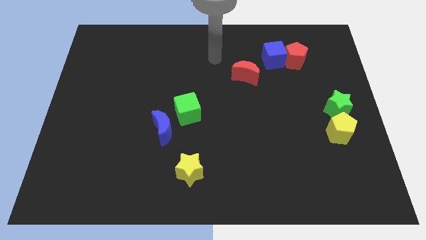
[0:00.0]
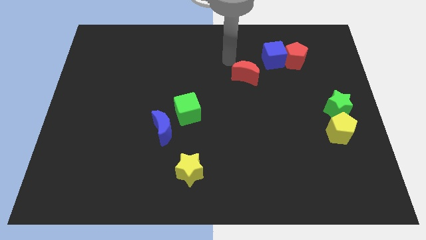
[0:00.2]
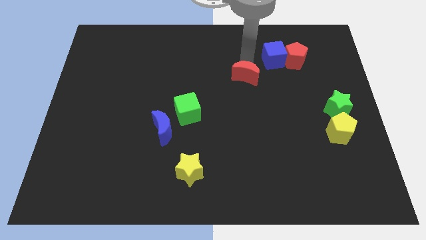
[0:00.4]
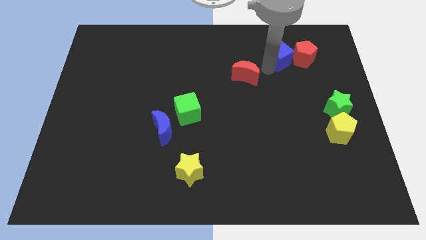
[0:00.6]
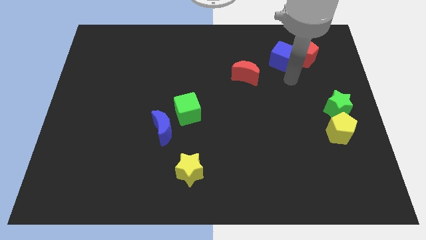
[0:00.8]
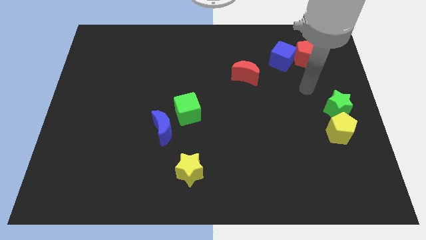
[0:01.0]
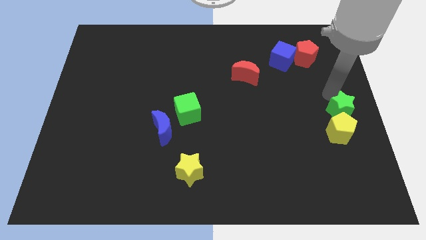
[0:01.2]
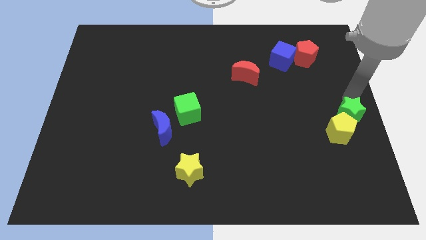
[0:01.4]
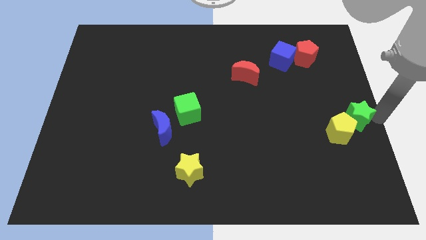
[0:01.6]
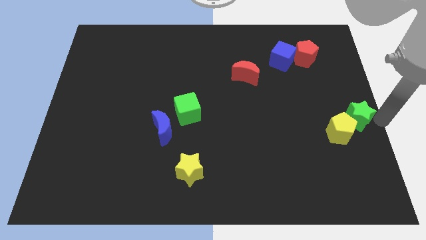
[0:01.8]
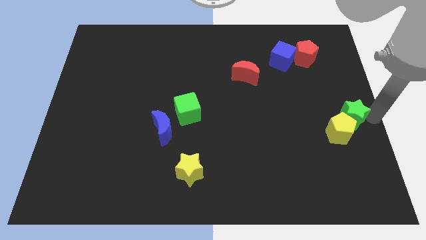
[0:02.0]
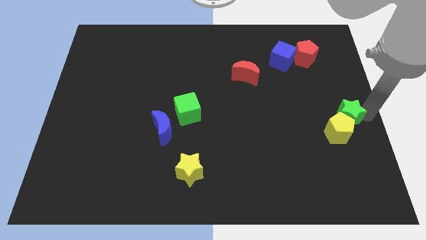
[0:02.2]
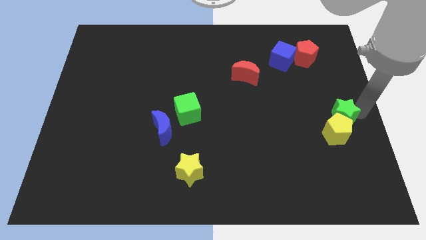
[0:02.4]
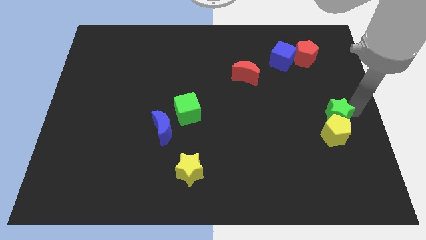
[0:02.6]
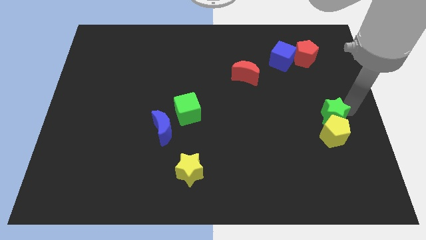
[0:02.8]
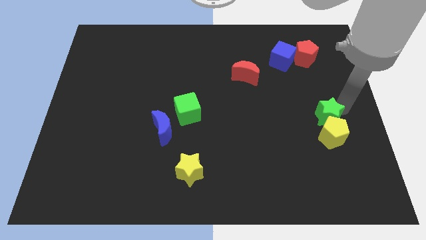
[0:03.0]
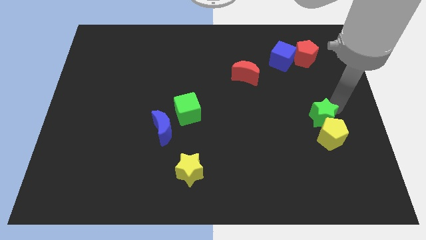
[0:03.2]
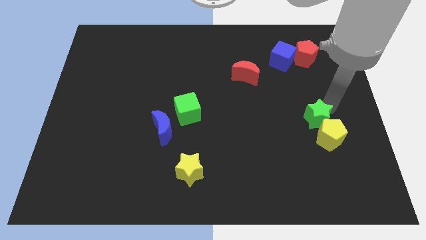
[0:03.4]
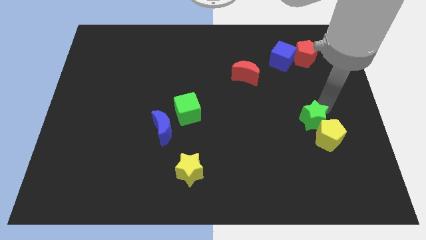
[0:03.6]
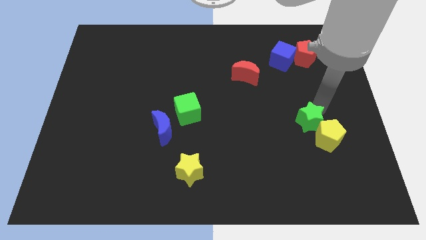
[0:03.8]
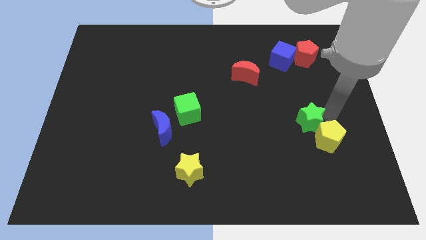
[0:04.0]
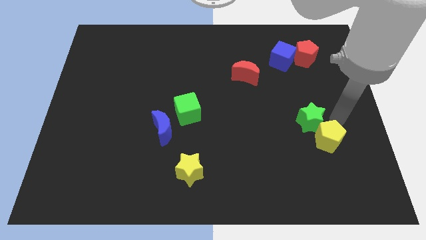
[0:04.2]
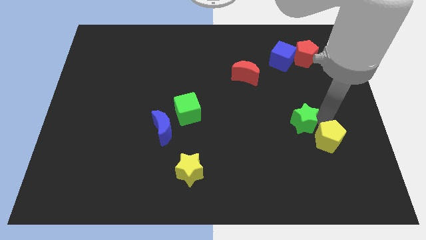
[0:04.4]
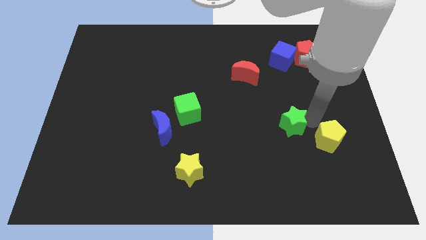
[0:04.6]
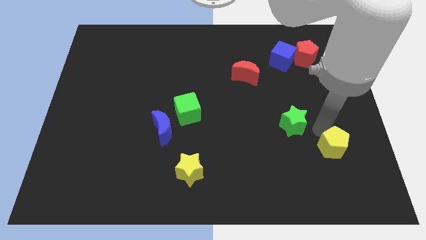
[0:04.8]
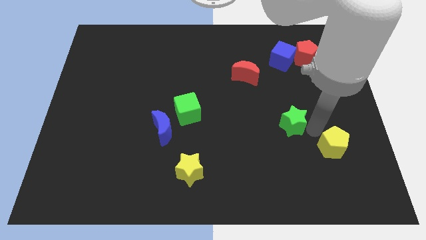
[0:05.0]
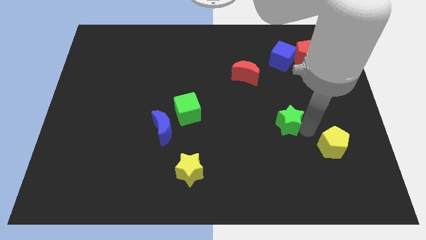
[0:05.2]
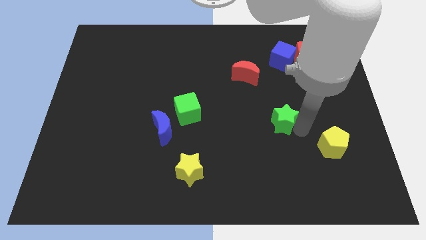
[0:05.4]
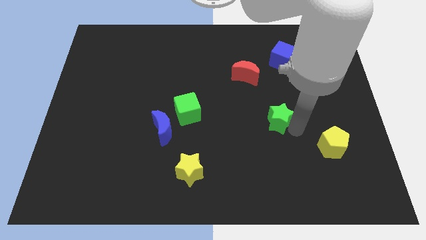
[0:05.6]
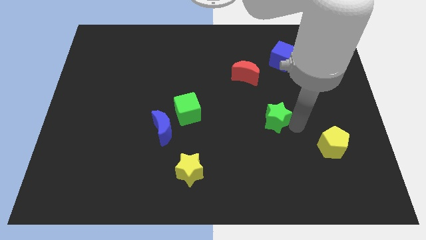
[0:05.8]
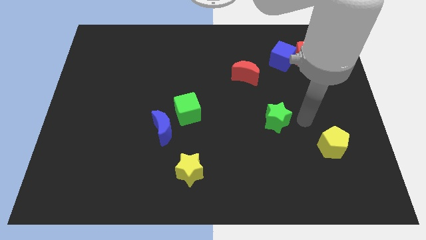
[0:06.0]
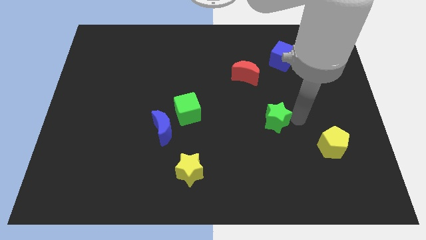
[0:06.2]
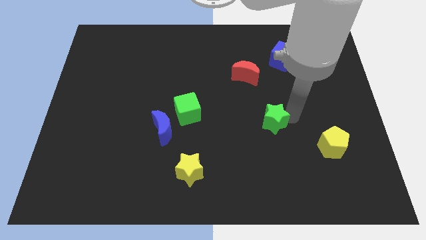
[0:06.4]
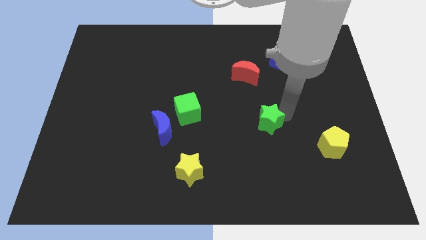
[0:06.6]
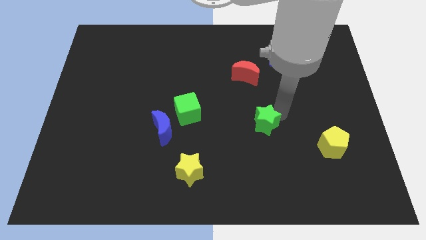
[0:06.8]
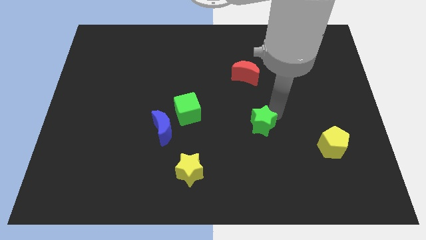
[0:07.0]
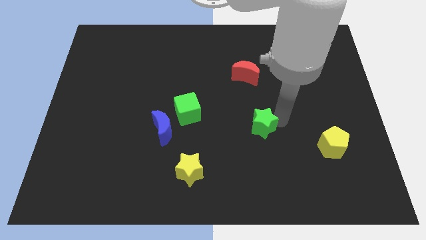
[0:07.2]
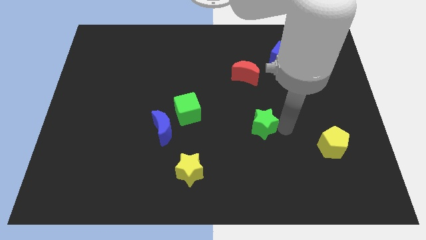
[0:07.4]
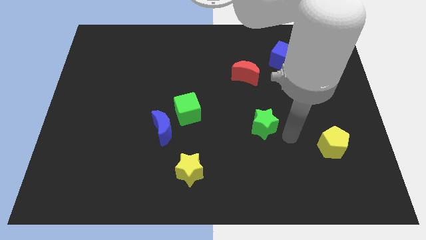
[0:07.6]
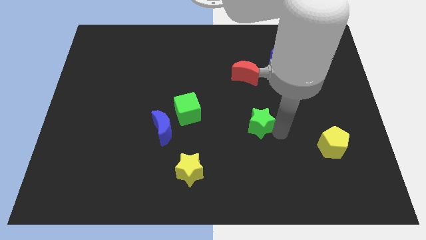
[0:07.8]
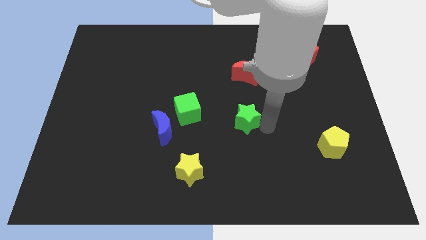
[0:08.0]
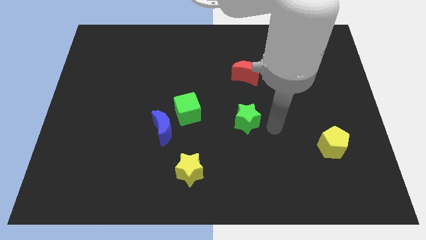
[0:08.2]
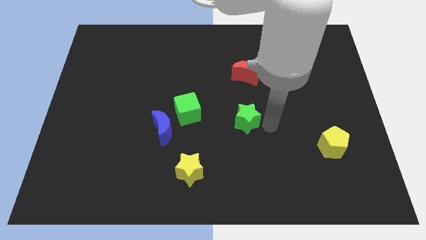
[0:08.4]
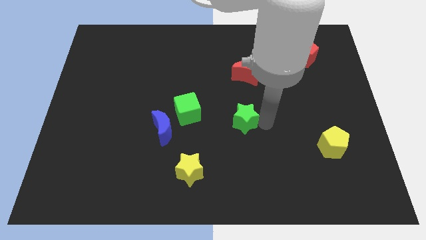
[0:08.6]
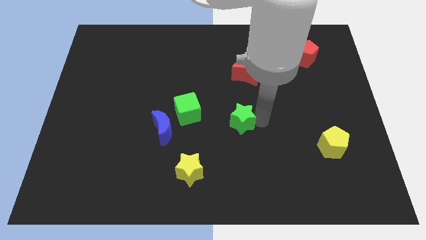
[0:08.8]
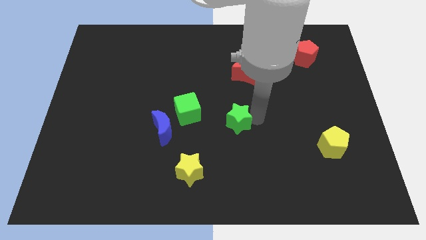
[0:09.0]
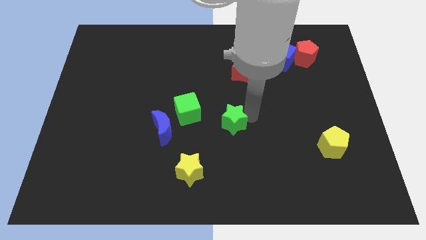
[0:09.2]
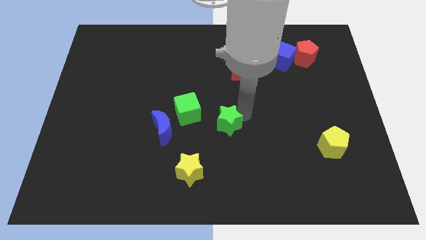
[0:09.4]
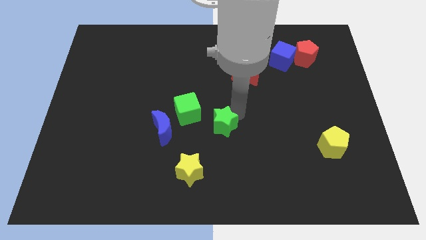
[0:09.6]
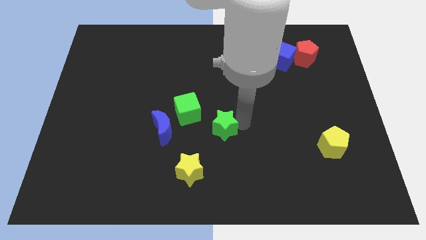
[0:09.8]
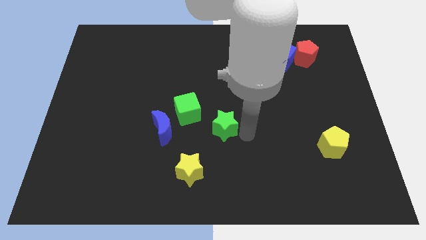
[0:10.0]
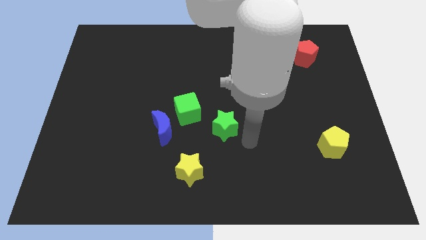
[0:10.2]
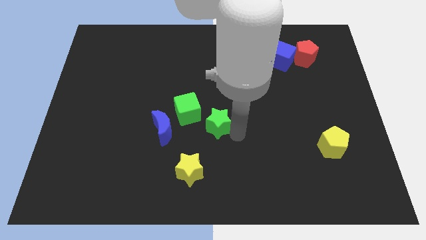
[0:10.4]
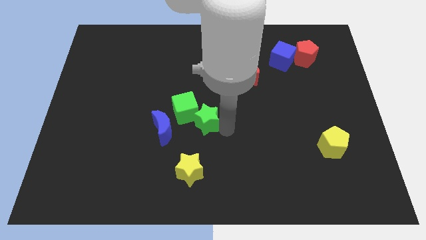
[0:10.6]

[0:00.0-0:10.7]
put the green star next to the green cube

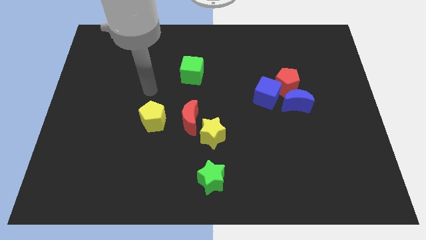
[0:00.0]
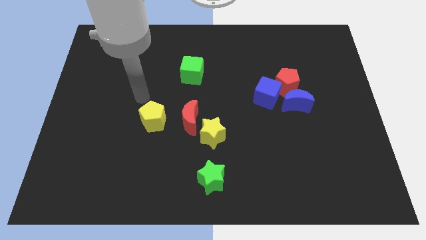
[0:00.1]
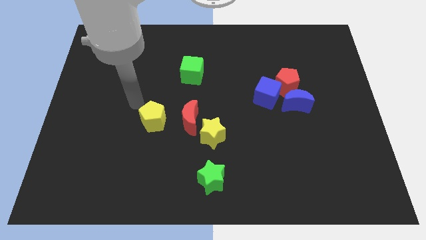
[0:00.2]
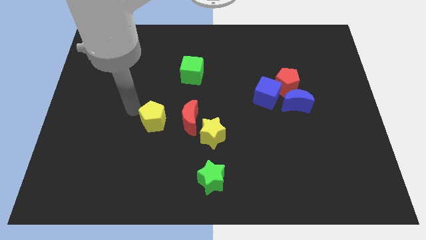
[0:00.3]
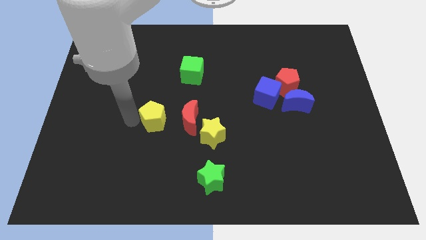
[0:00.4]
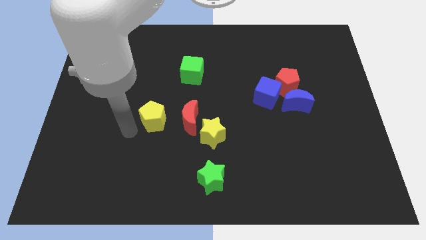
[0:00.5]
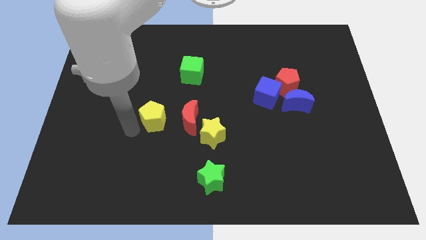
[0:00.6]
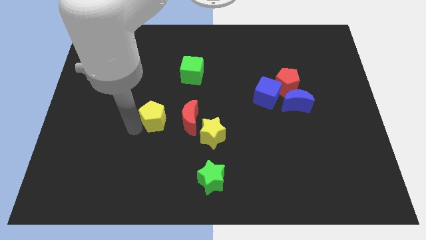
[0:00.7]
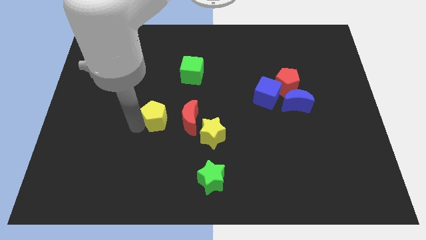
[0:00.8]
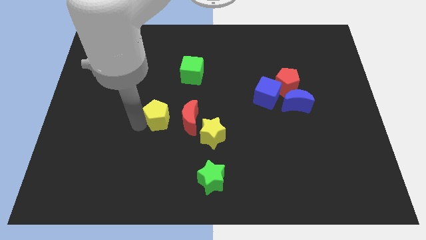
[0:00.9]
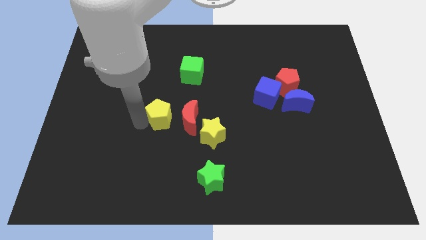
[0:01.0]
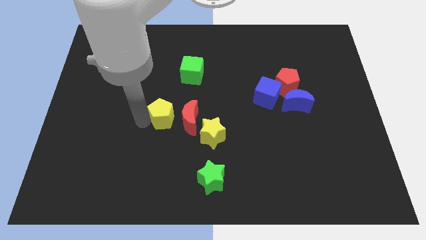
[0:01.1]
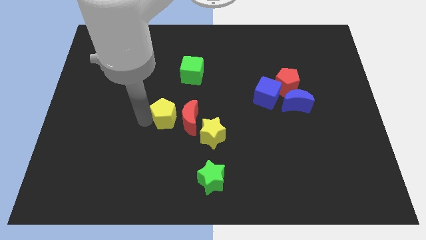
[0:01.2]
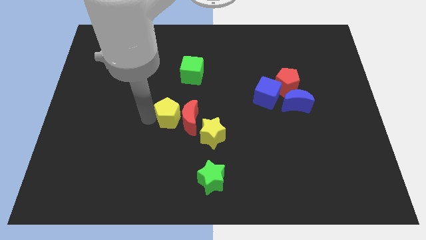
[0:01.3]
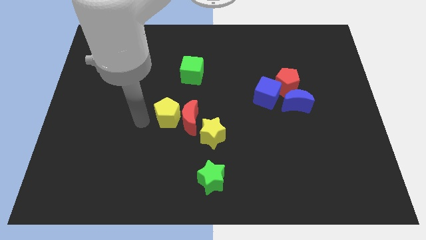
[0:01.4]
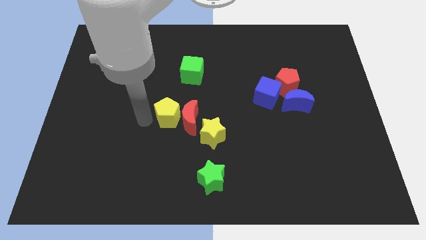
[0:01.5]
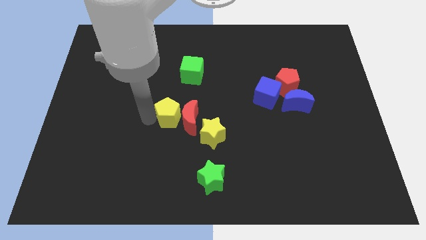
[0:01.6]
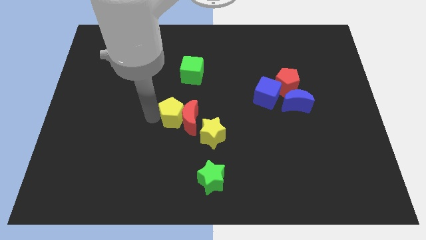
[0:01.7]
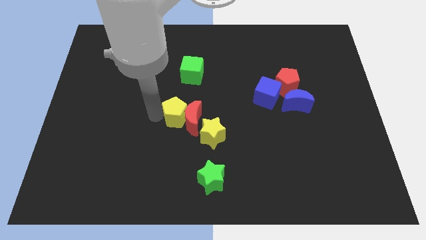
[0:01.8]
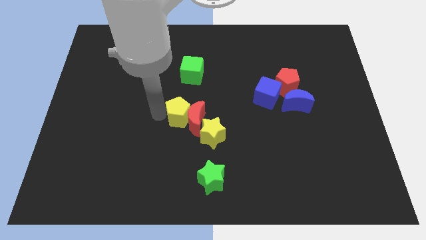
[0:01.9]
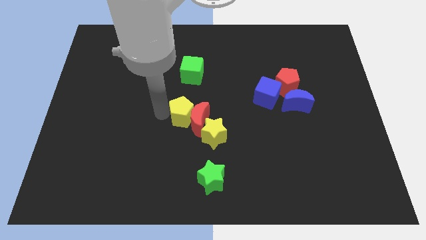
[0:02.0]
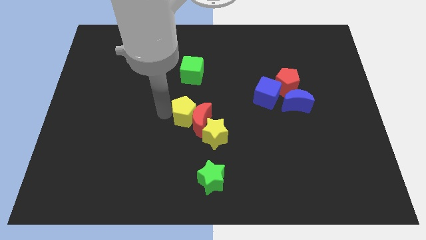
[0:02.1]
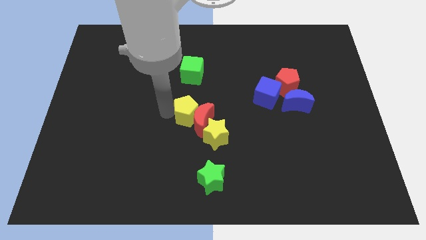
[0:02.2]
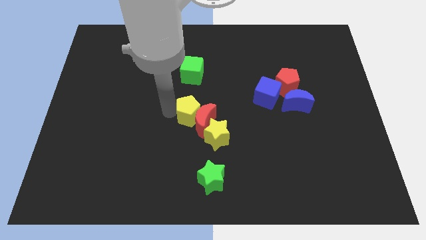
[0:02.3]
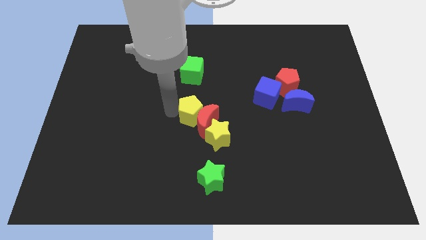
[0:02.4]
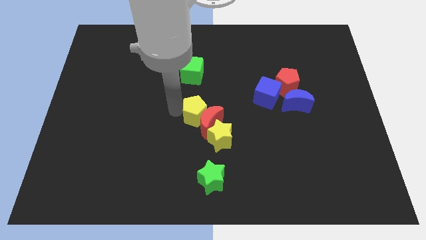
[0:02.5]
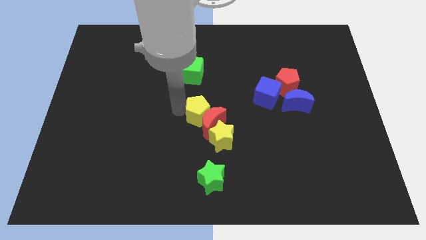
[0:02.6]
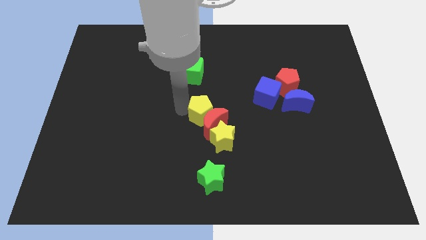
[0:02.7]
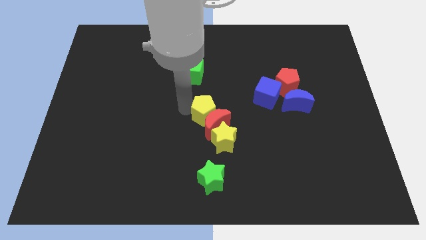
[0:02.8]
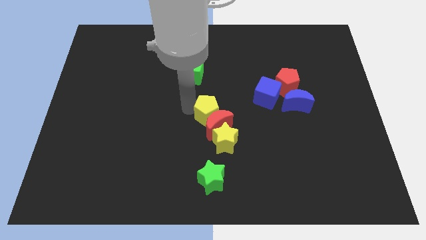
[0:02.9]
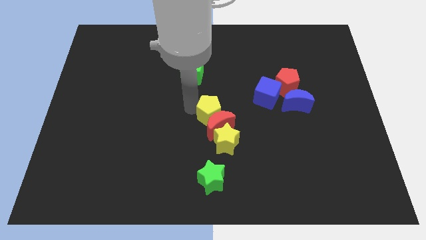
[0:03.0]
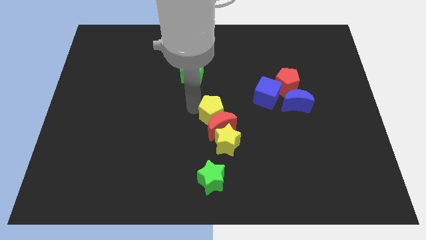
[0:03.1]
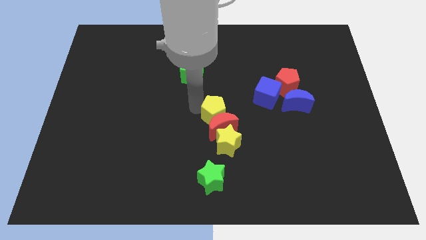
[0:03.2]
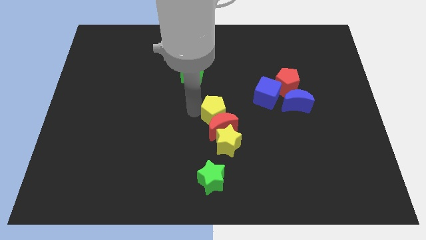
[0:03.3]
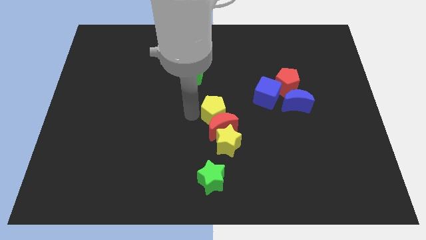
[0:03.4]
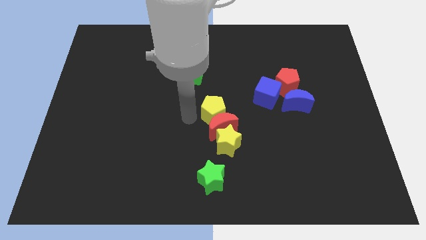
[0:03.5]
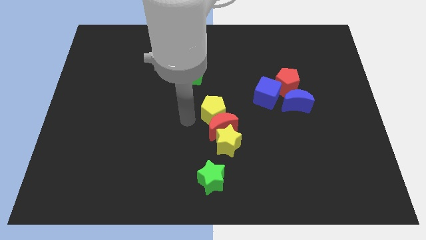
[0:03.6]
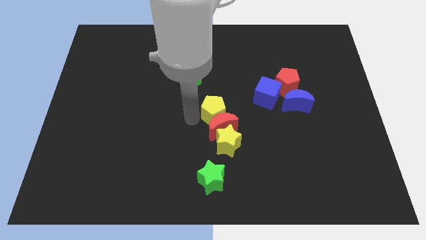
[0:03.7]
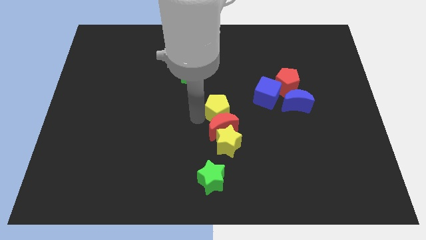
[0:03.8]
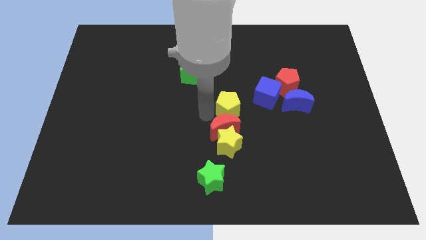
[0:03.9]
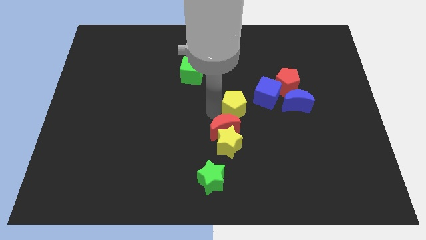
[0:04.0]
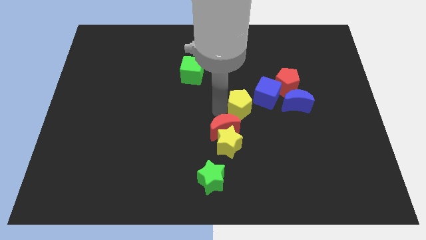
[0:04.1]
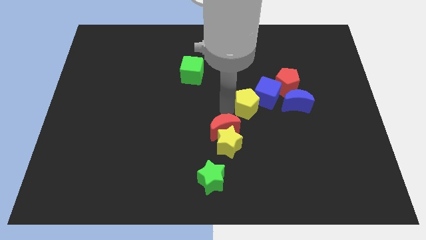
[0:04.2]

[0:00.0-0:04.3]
push the yellow pentagon next to the blue cube
